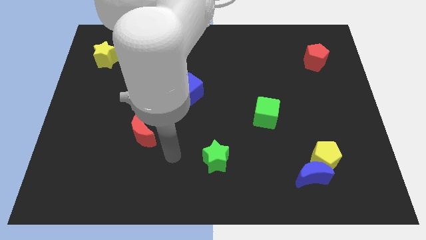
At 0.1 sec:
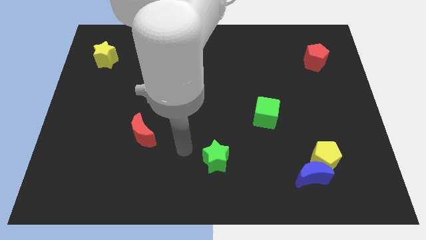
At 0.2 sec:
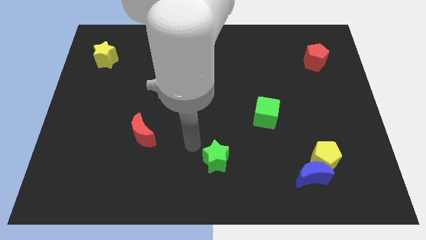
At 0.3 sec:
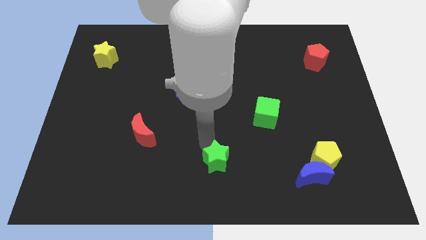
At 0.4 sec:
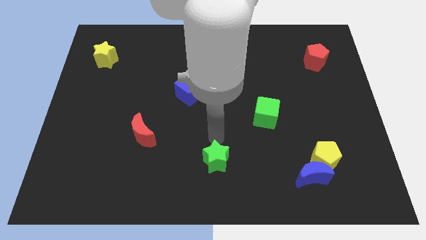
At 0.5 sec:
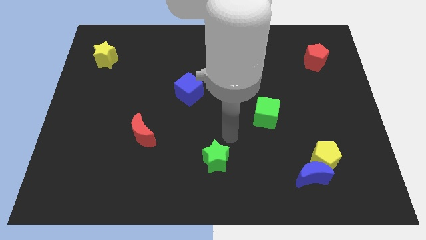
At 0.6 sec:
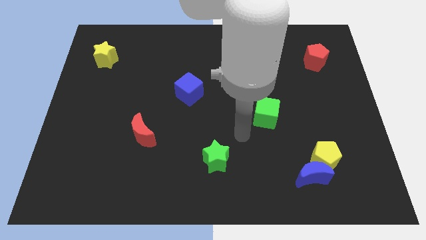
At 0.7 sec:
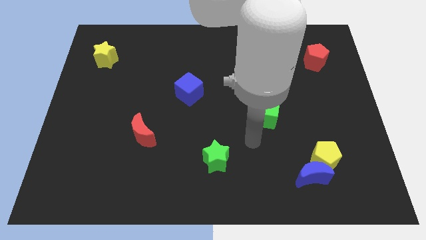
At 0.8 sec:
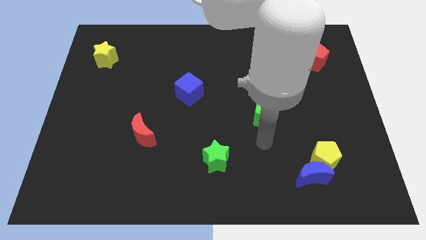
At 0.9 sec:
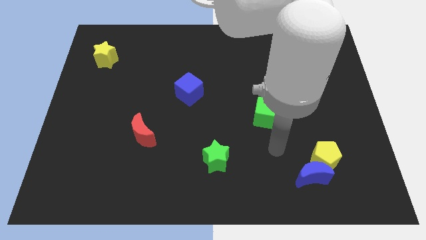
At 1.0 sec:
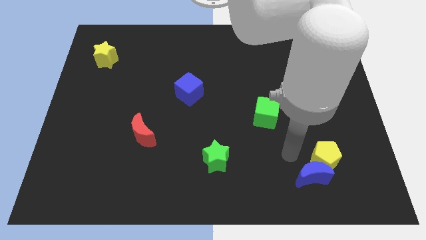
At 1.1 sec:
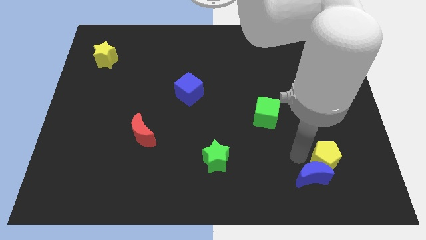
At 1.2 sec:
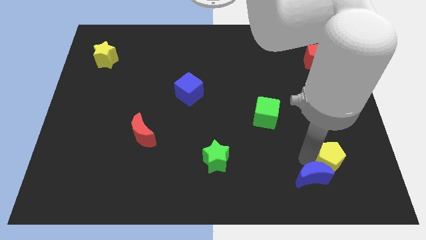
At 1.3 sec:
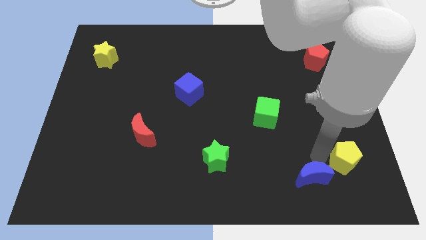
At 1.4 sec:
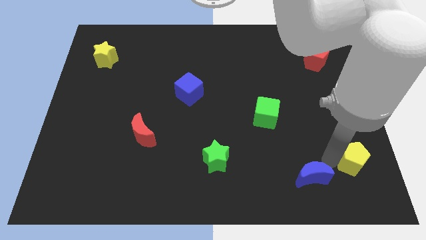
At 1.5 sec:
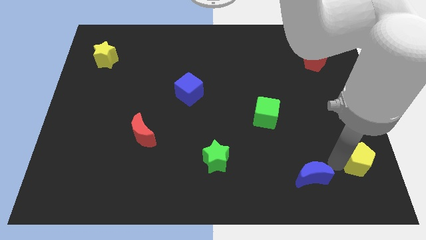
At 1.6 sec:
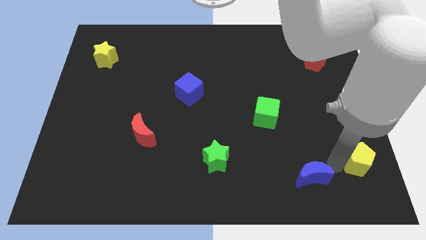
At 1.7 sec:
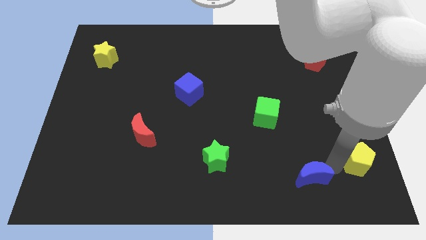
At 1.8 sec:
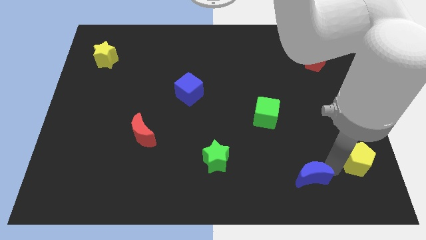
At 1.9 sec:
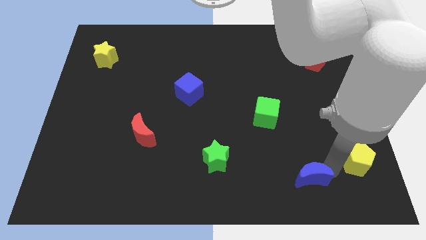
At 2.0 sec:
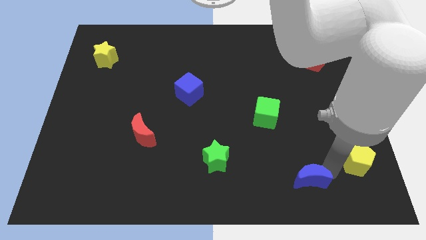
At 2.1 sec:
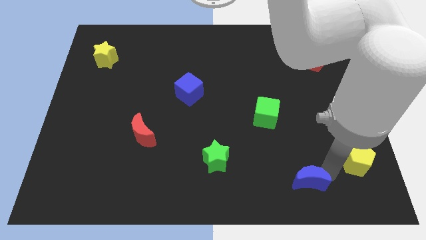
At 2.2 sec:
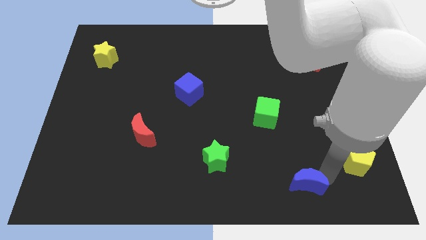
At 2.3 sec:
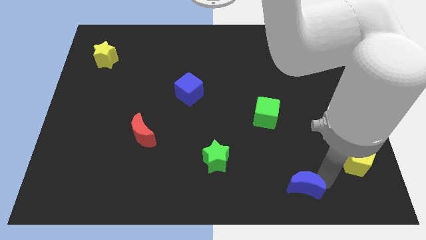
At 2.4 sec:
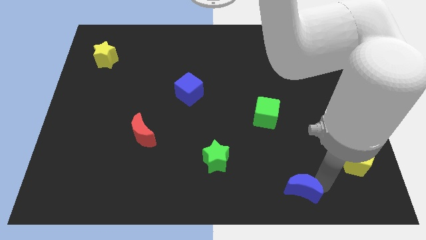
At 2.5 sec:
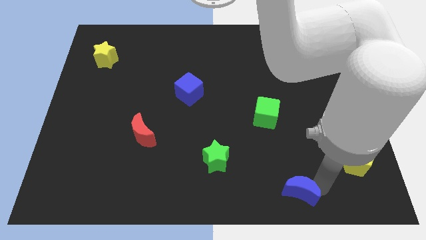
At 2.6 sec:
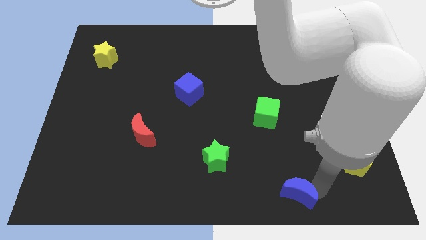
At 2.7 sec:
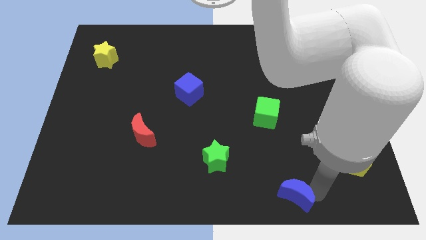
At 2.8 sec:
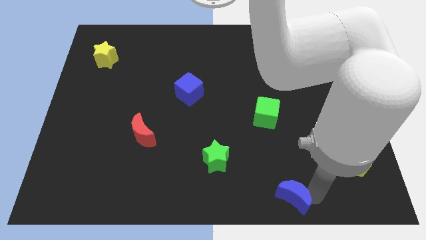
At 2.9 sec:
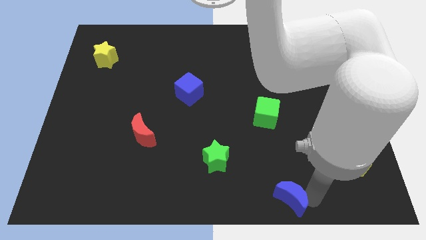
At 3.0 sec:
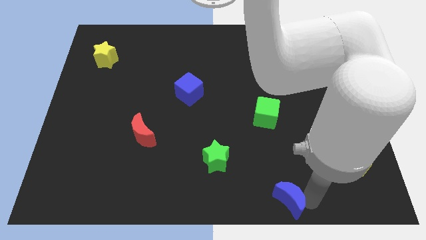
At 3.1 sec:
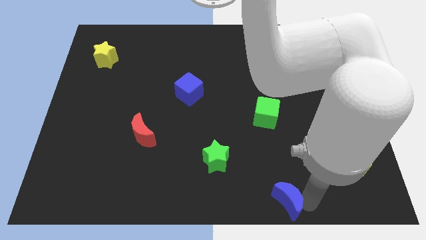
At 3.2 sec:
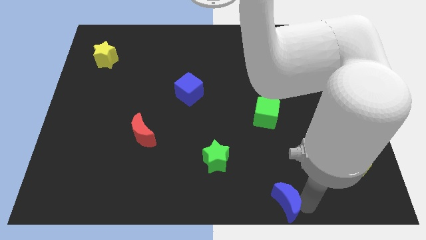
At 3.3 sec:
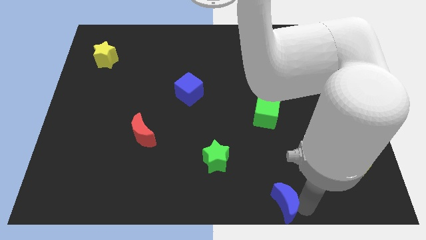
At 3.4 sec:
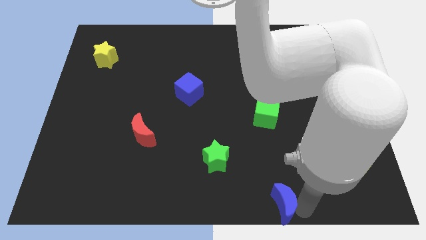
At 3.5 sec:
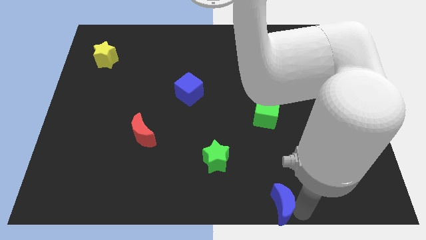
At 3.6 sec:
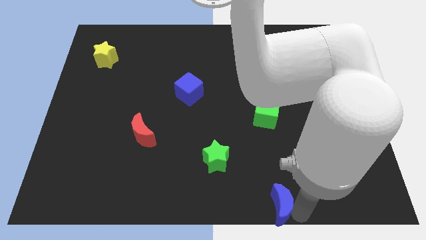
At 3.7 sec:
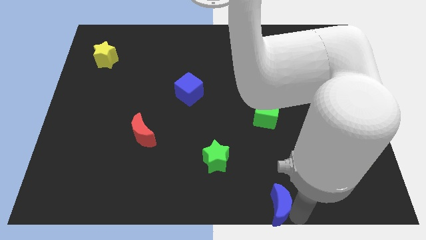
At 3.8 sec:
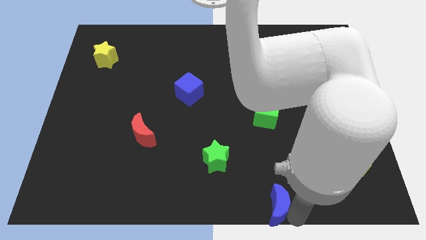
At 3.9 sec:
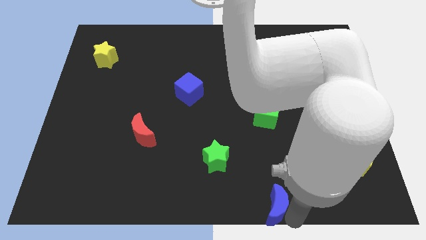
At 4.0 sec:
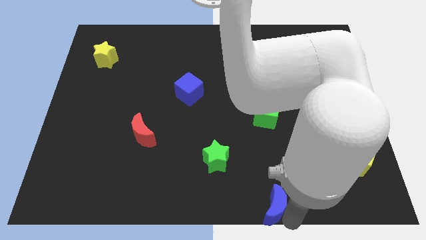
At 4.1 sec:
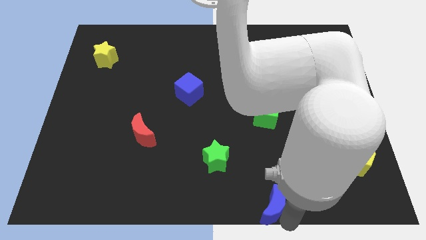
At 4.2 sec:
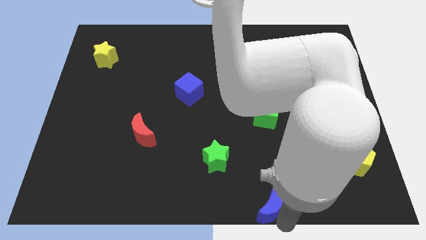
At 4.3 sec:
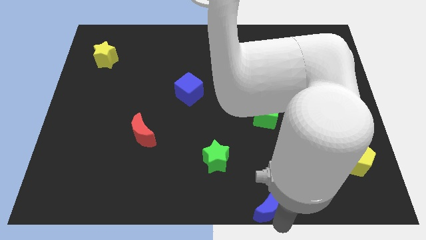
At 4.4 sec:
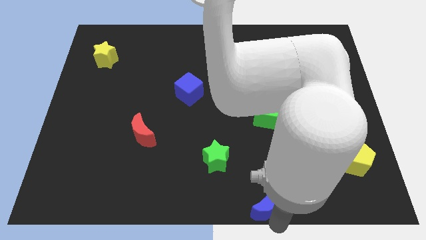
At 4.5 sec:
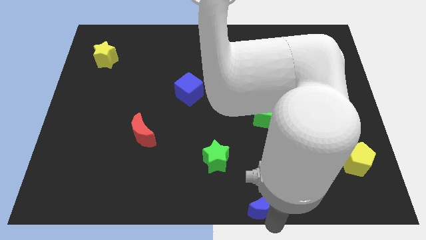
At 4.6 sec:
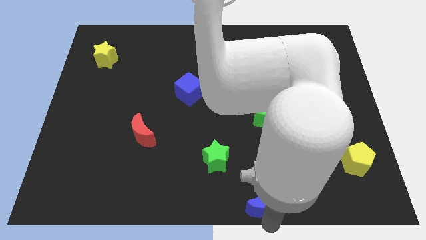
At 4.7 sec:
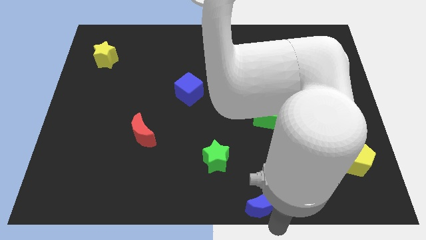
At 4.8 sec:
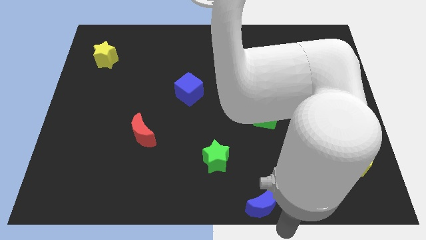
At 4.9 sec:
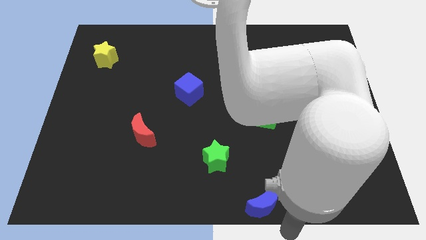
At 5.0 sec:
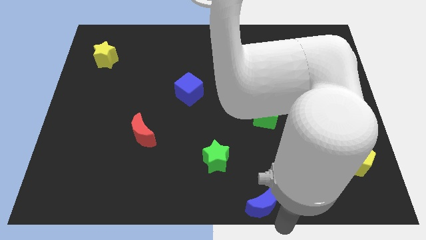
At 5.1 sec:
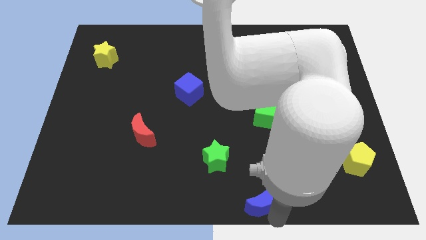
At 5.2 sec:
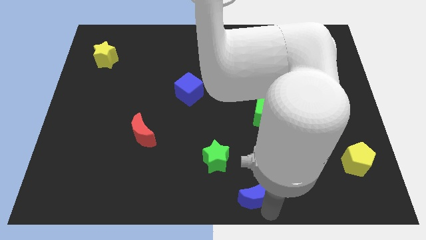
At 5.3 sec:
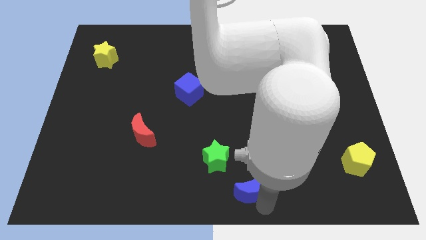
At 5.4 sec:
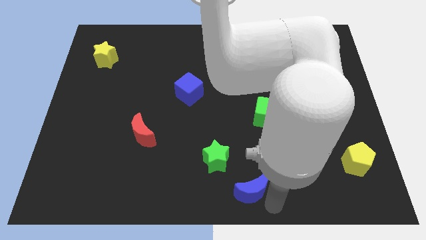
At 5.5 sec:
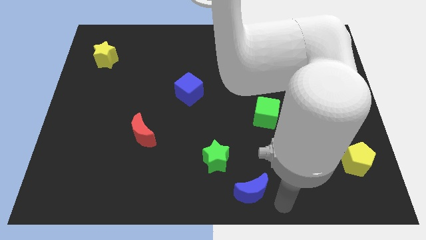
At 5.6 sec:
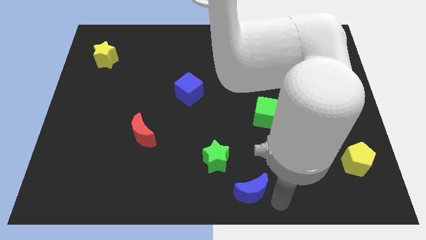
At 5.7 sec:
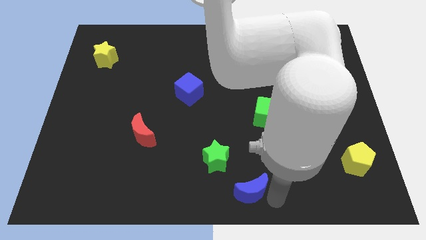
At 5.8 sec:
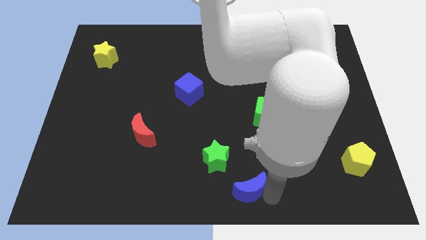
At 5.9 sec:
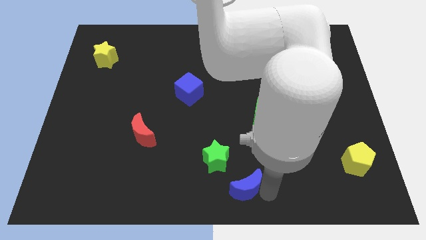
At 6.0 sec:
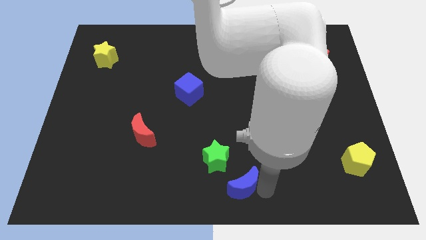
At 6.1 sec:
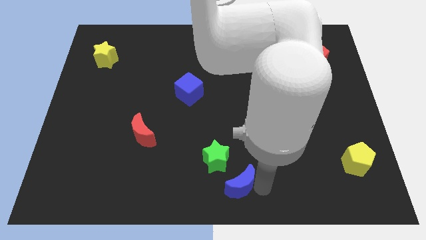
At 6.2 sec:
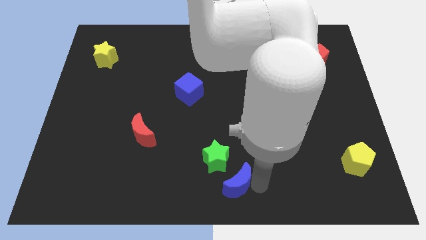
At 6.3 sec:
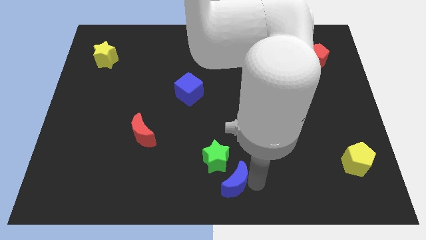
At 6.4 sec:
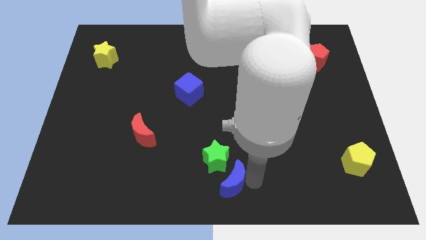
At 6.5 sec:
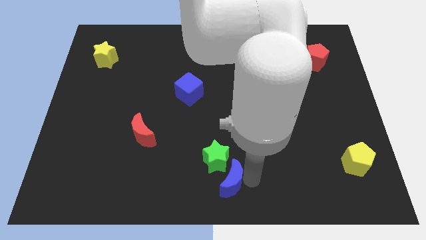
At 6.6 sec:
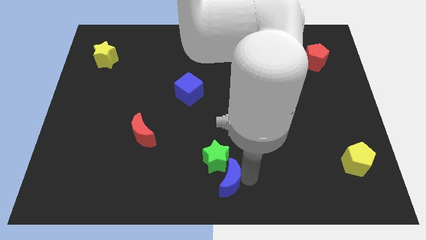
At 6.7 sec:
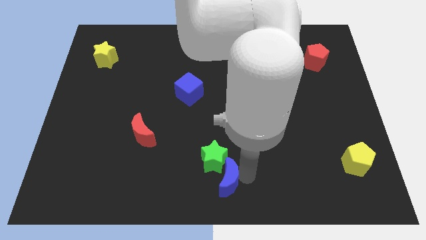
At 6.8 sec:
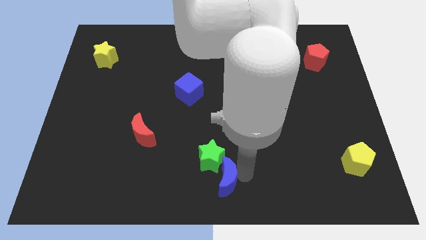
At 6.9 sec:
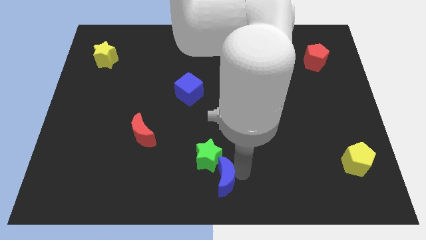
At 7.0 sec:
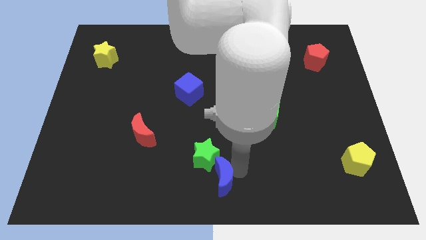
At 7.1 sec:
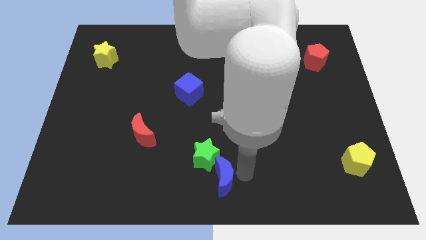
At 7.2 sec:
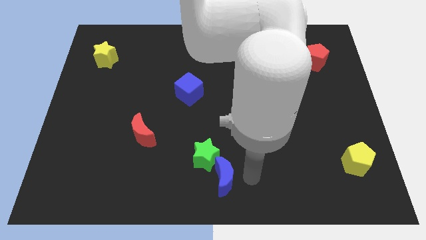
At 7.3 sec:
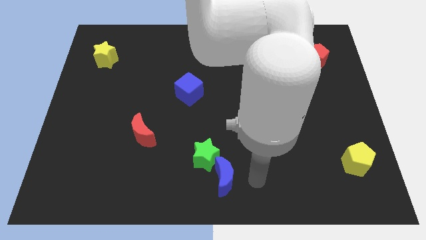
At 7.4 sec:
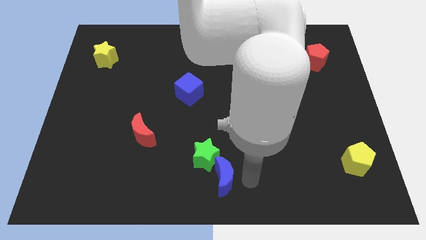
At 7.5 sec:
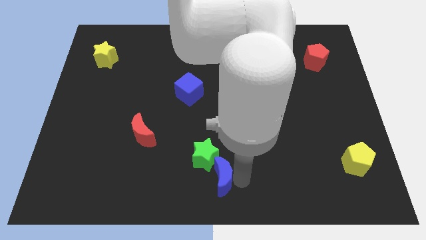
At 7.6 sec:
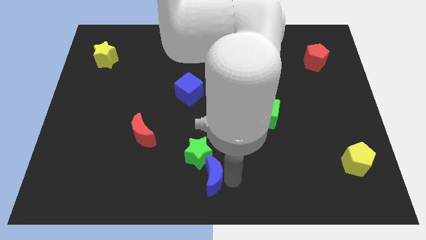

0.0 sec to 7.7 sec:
slide the blue moon left

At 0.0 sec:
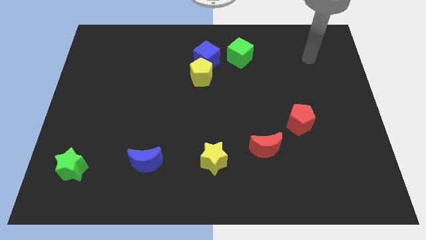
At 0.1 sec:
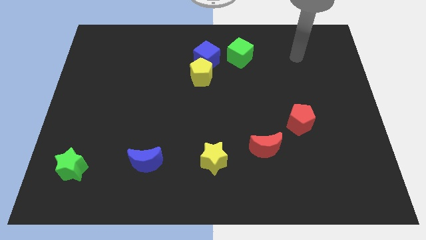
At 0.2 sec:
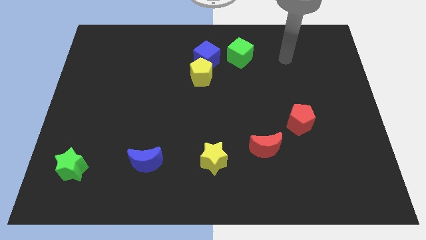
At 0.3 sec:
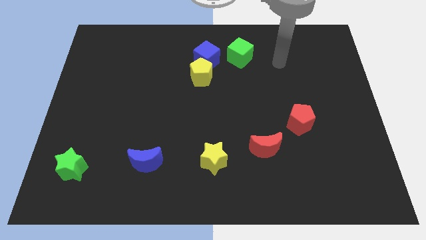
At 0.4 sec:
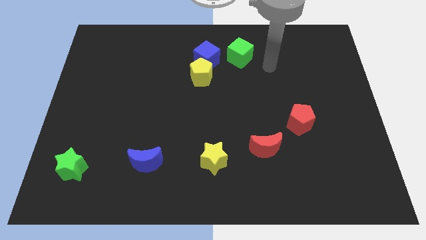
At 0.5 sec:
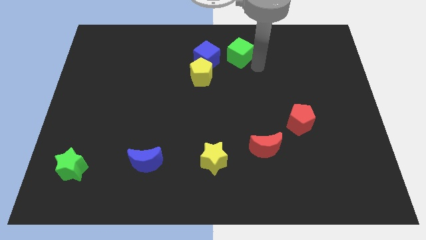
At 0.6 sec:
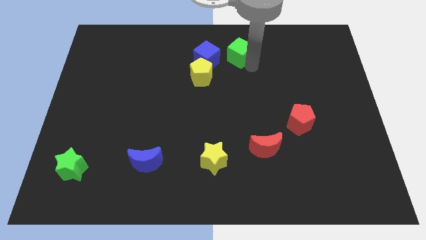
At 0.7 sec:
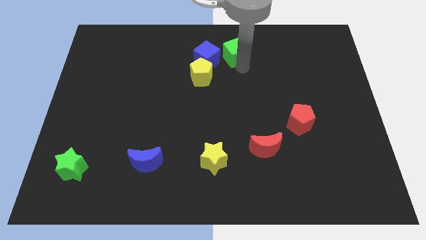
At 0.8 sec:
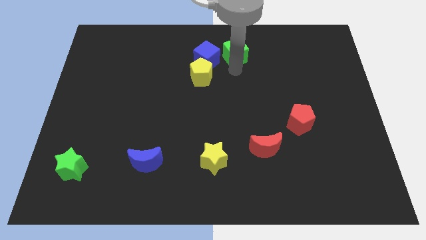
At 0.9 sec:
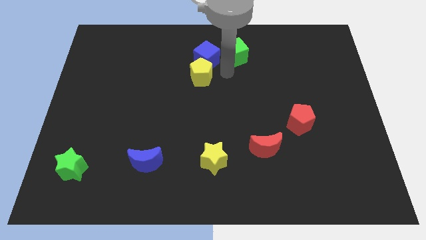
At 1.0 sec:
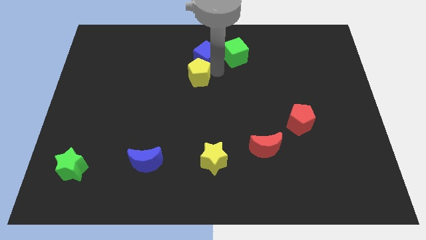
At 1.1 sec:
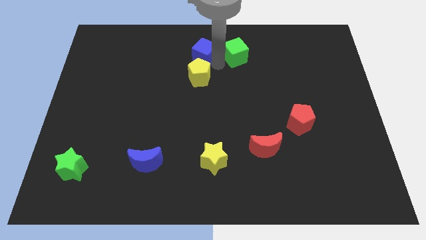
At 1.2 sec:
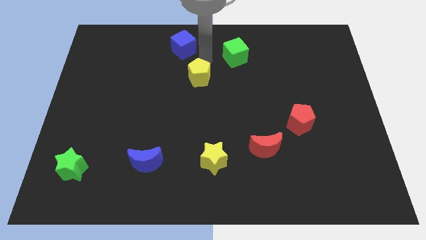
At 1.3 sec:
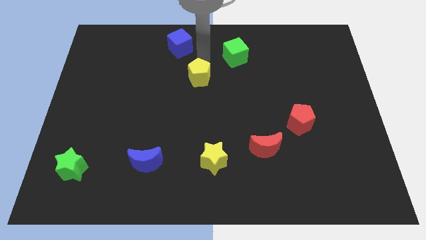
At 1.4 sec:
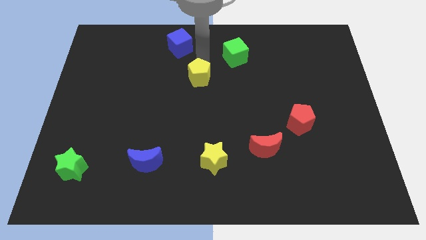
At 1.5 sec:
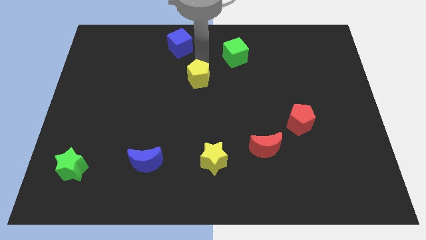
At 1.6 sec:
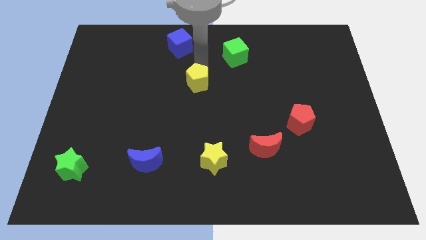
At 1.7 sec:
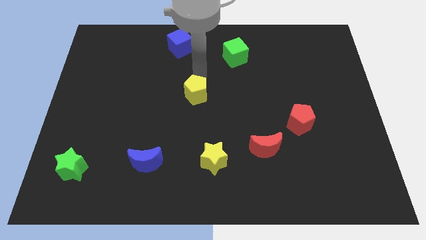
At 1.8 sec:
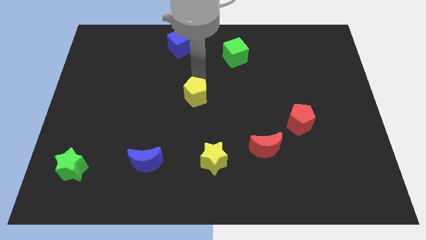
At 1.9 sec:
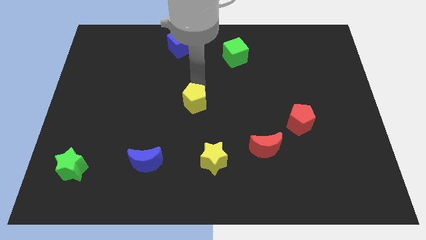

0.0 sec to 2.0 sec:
move the yellow pentagon a little down
